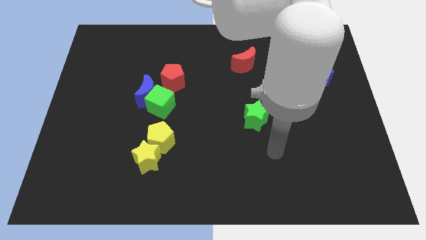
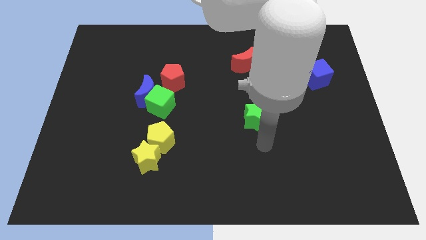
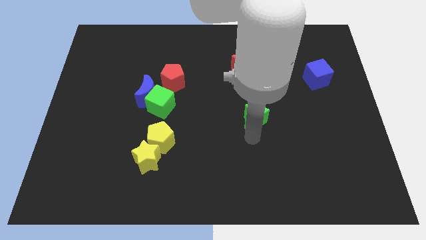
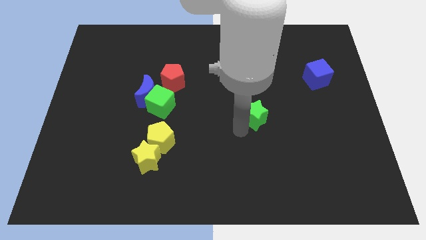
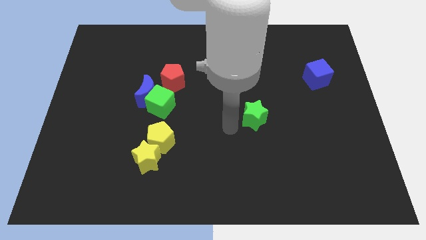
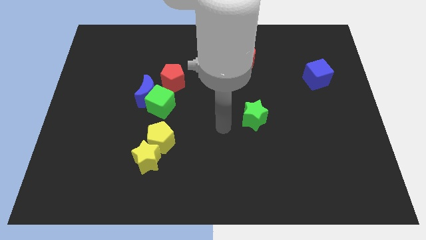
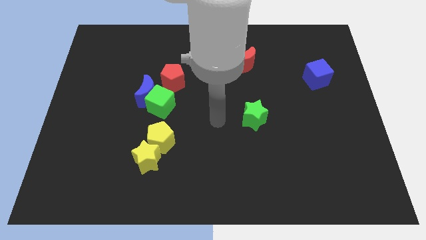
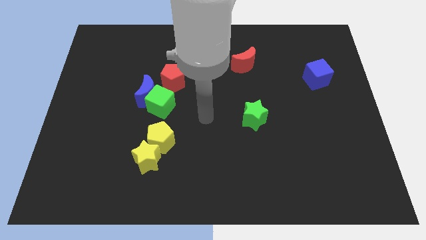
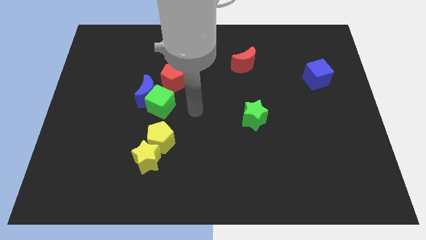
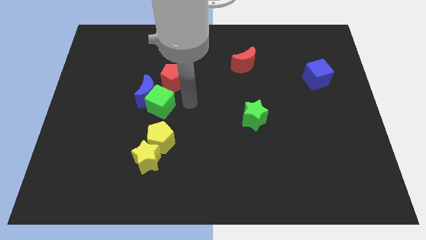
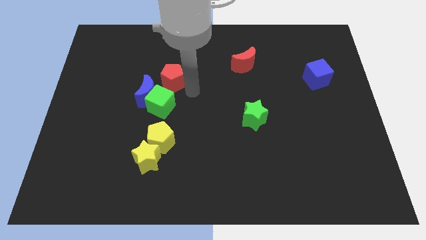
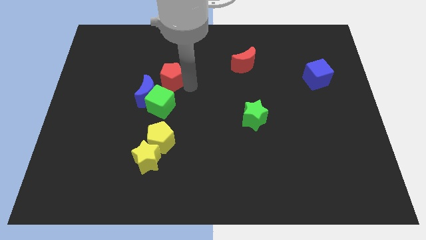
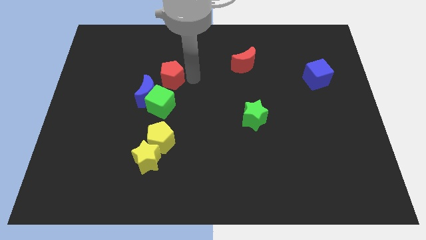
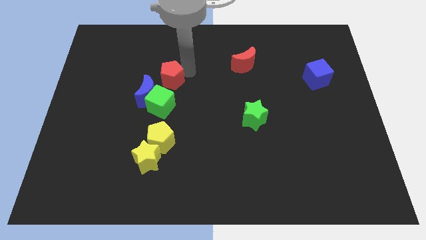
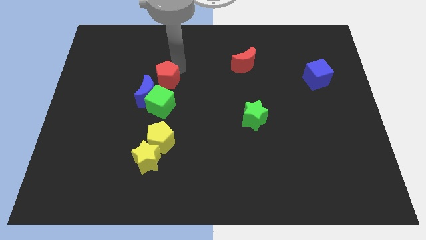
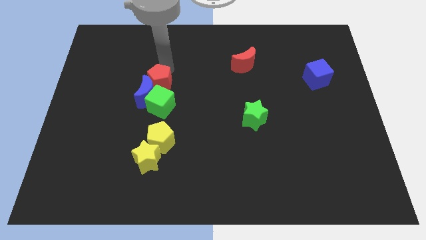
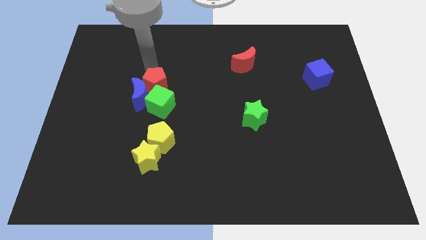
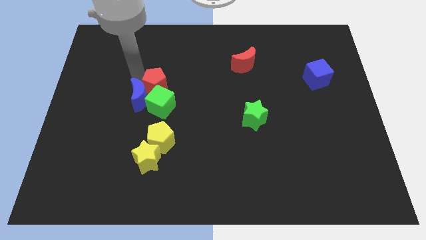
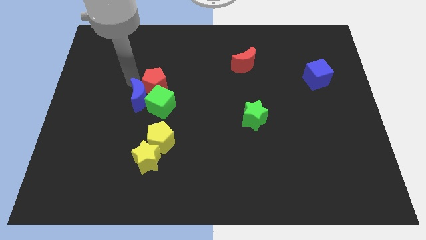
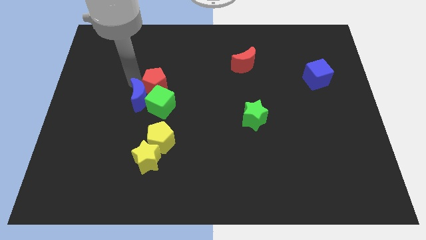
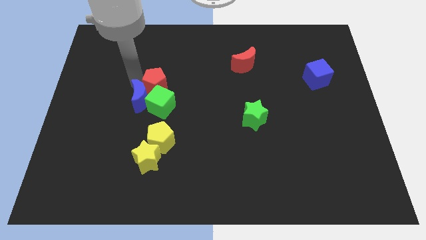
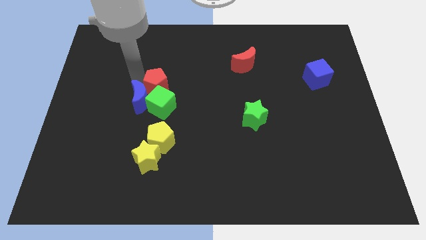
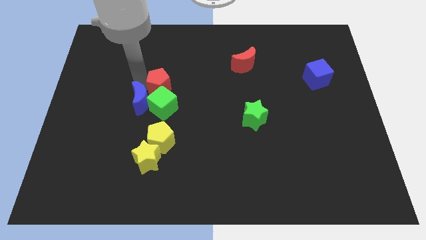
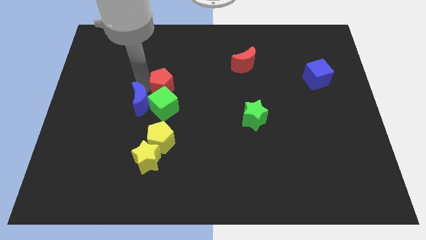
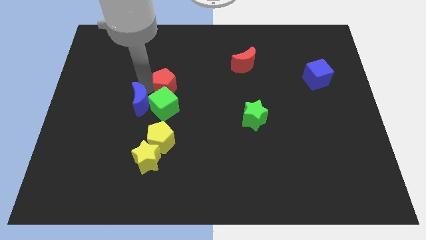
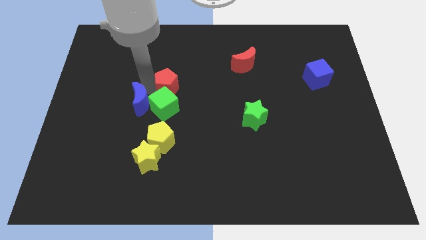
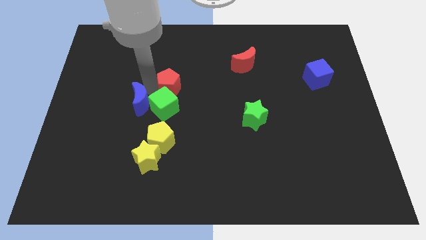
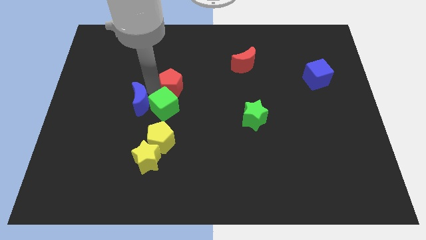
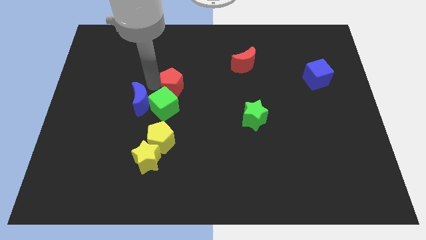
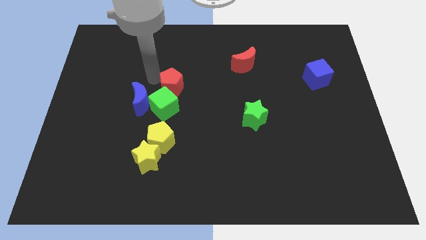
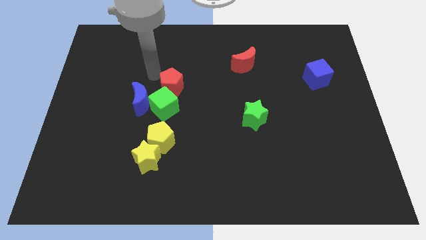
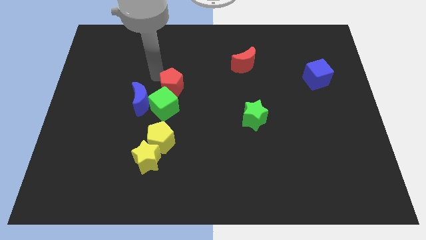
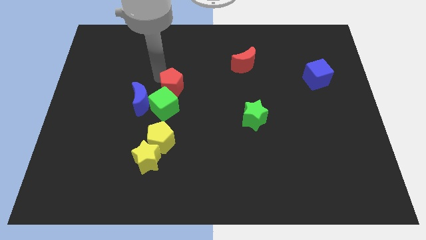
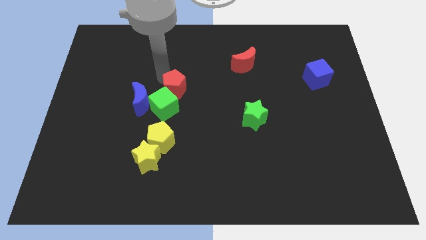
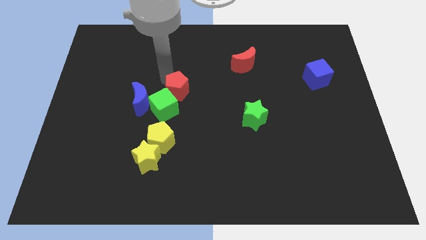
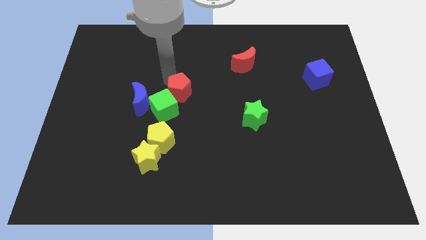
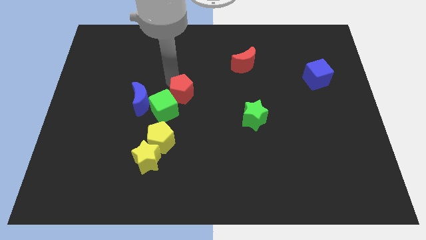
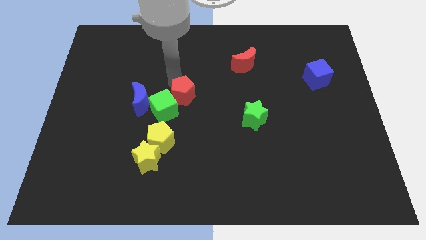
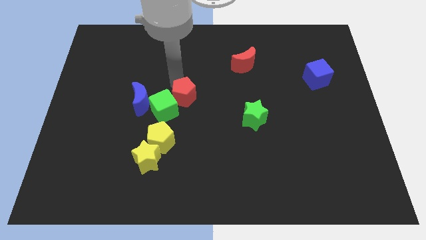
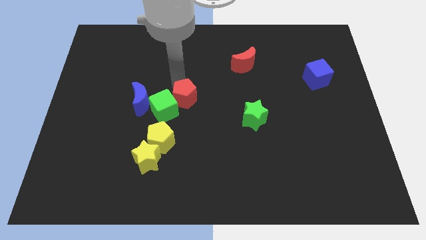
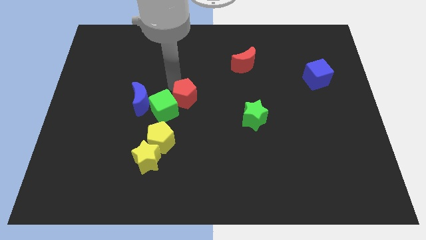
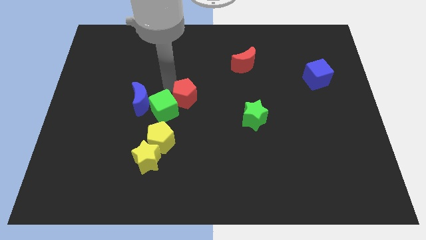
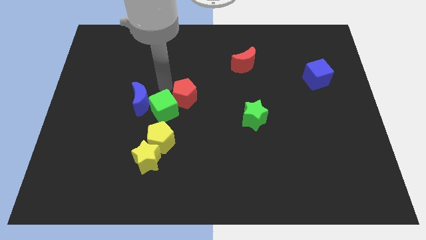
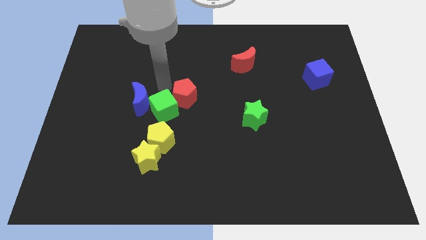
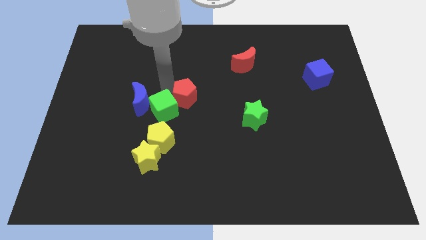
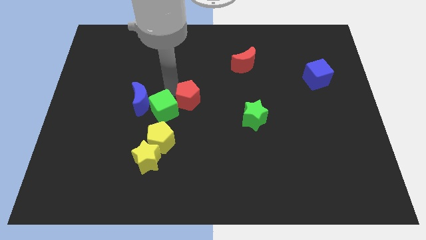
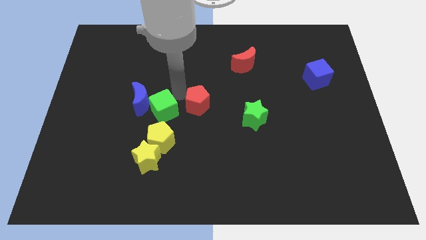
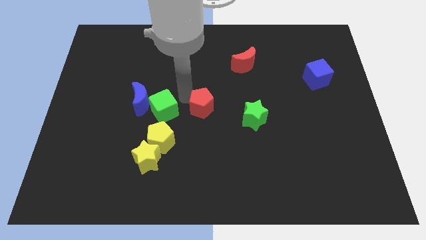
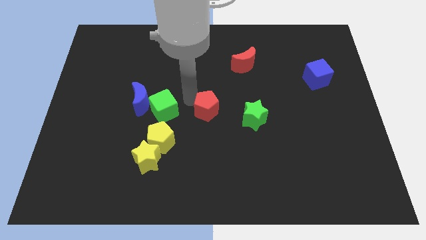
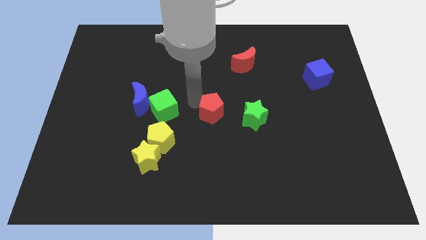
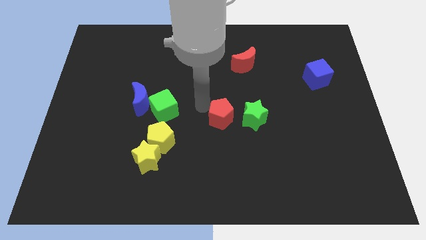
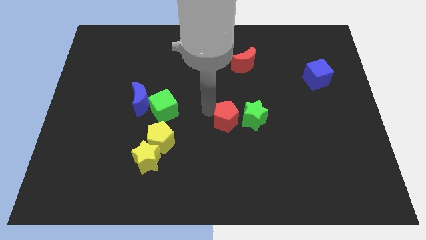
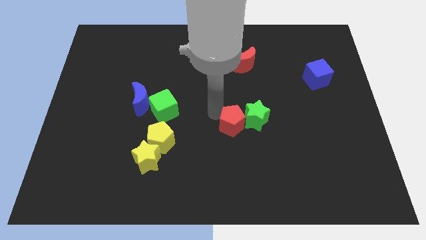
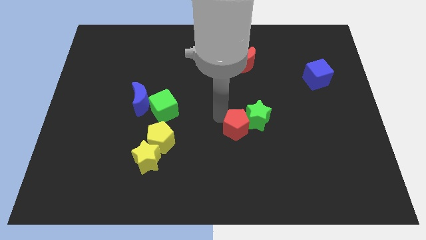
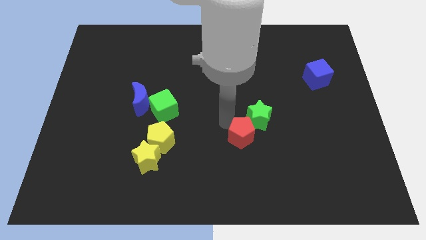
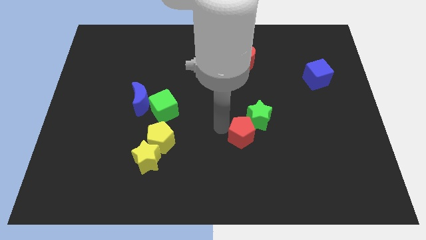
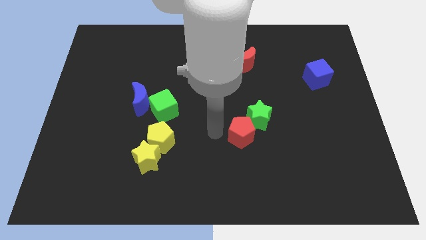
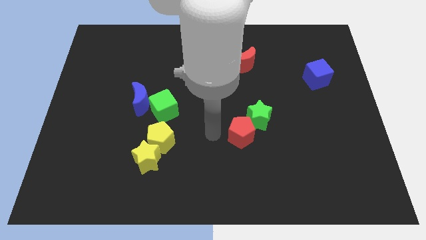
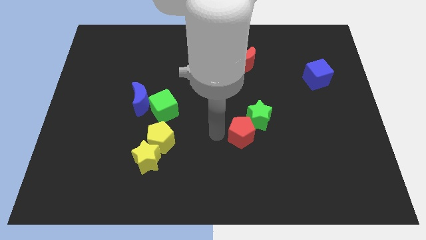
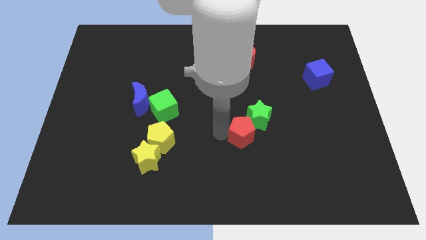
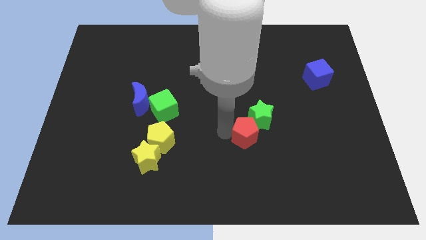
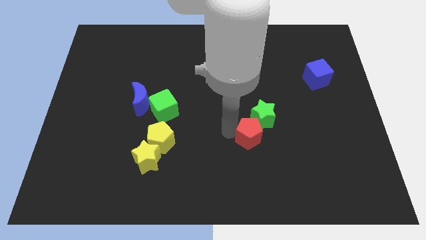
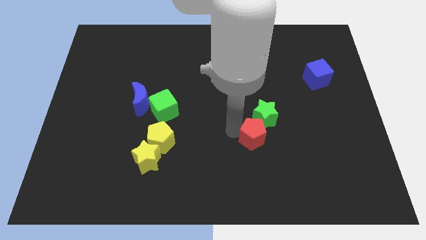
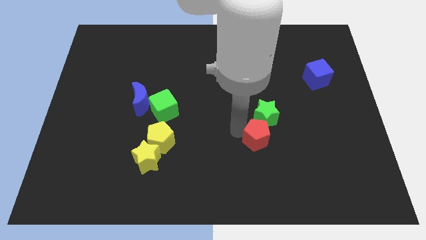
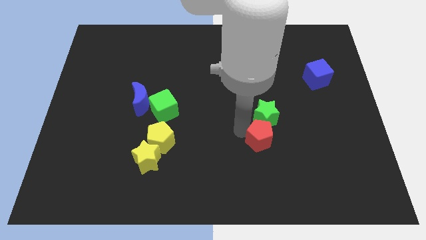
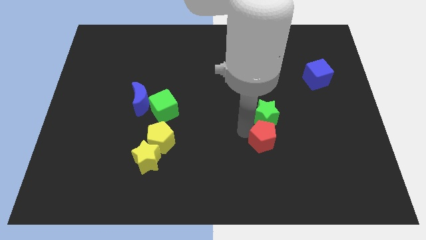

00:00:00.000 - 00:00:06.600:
move the red pentagon to the bottom right of the green star

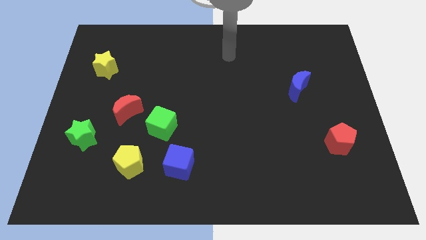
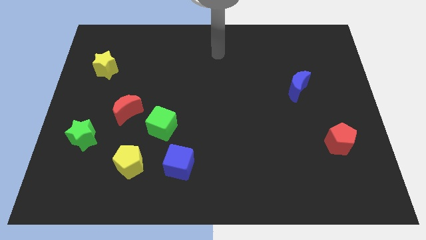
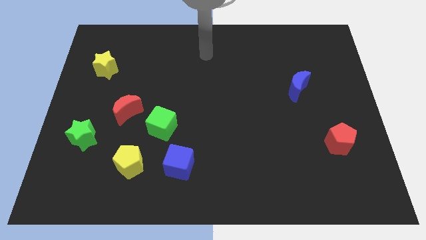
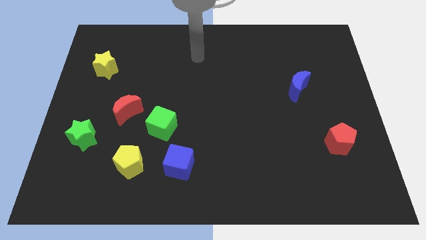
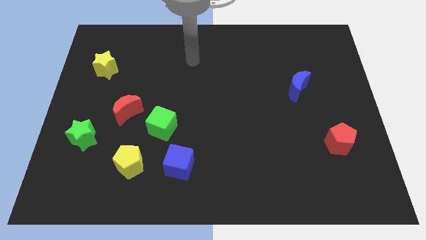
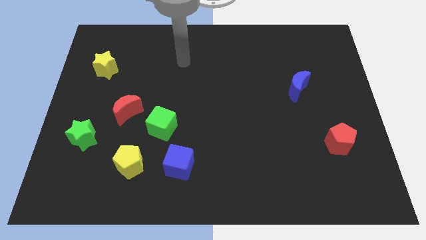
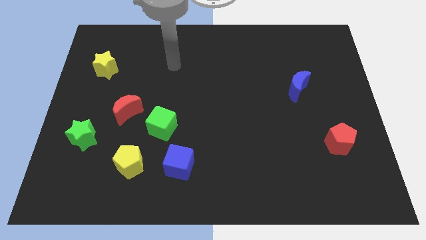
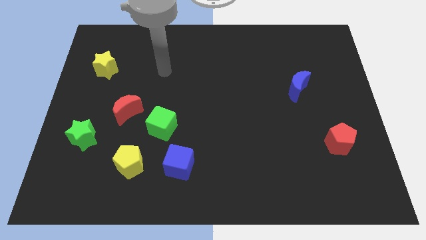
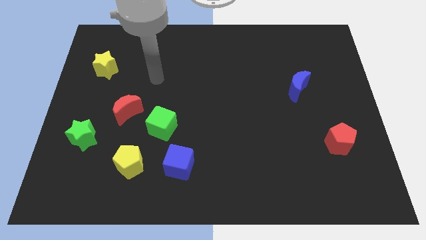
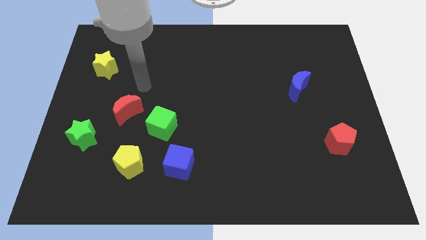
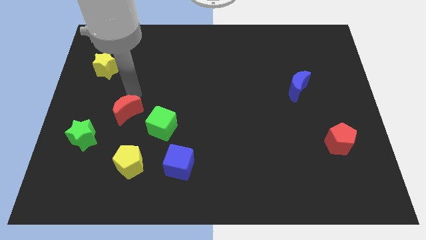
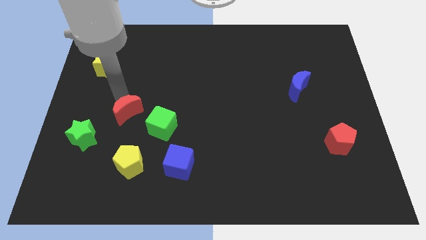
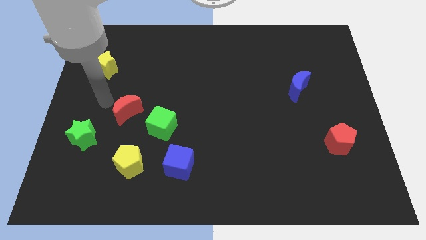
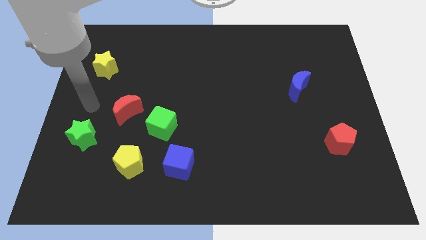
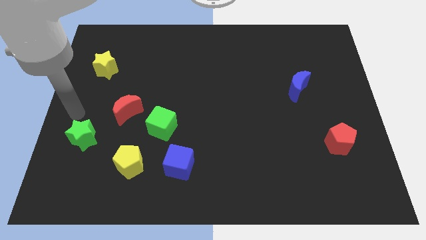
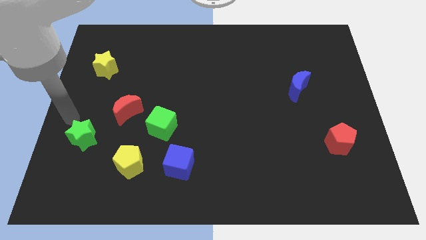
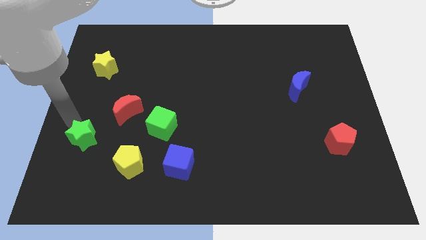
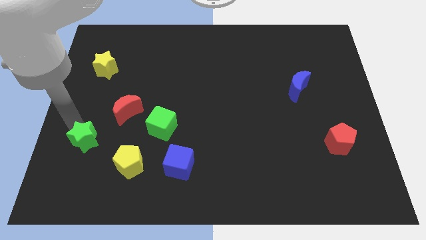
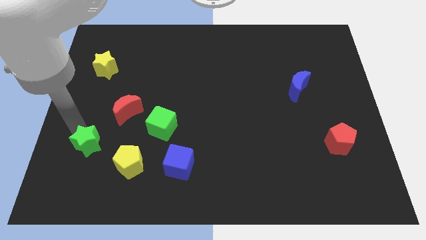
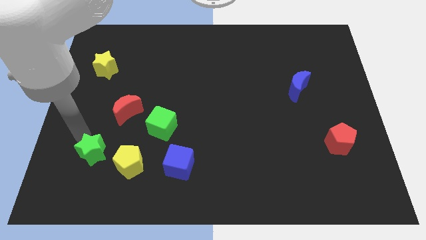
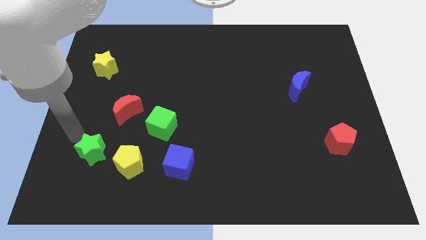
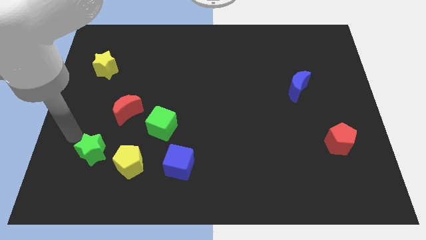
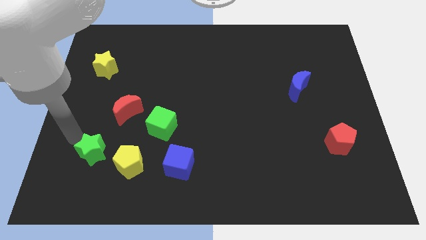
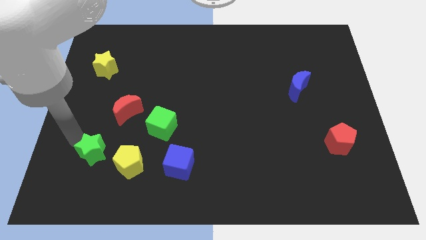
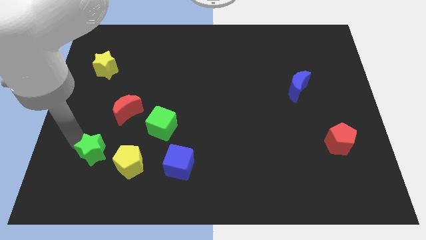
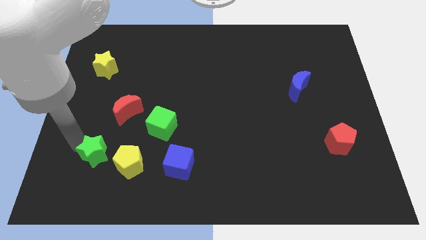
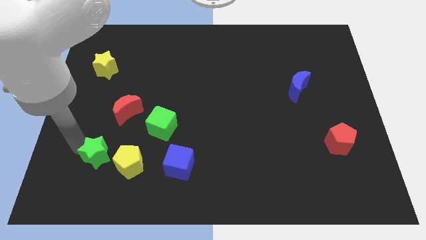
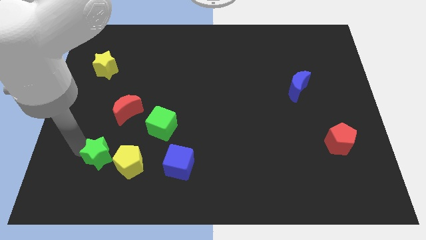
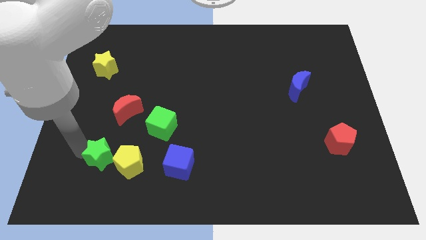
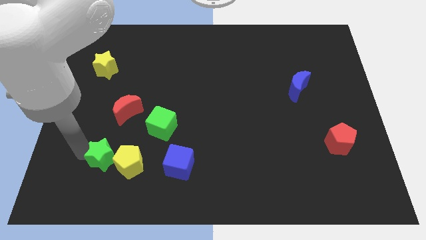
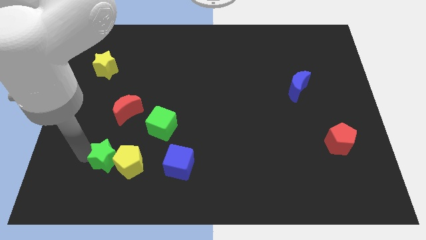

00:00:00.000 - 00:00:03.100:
push the green star just left of the blue cube
